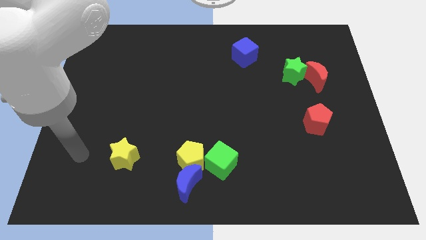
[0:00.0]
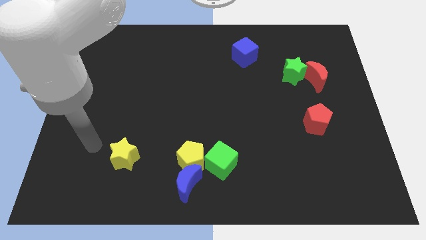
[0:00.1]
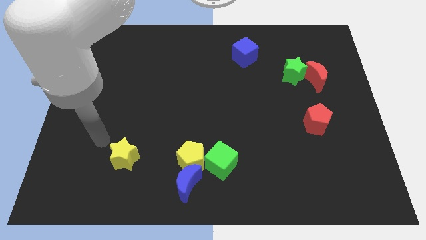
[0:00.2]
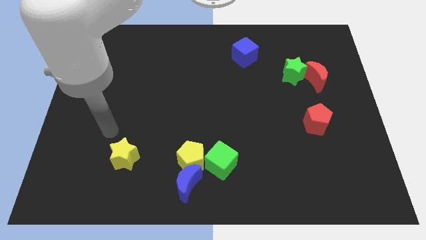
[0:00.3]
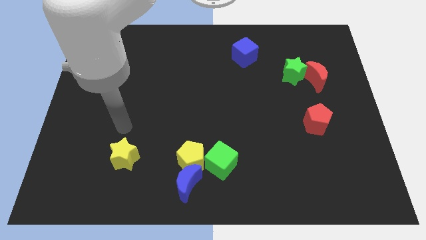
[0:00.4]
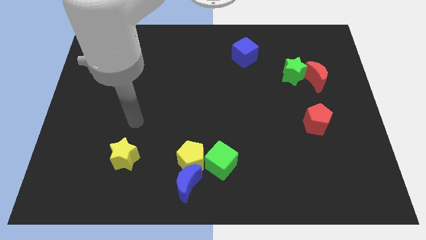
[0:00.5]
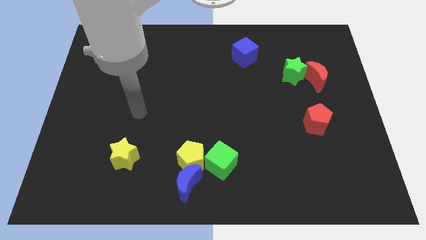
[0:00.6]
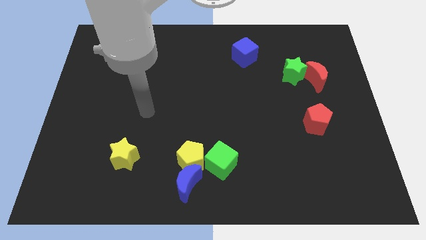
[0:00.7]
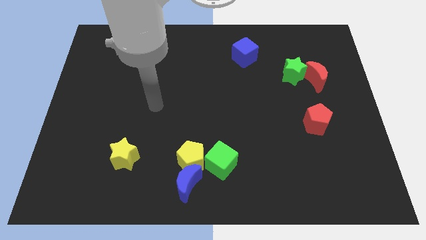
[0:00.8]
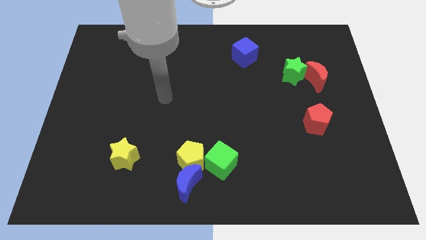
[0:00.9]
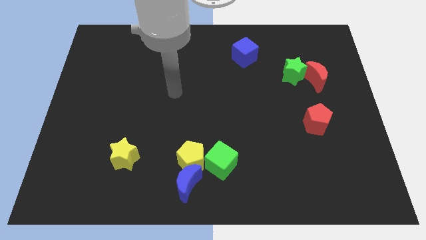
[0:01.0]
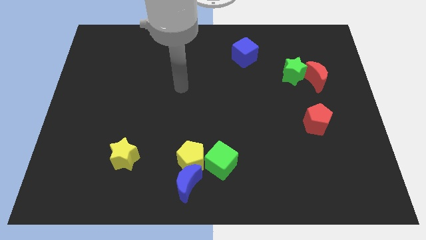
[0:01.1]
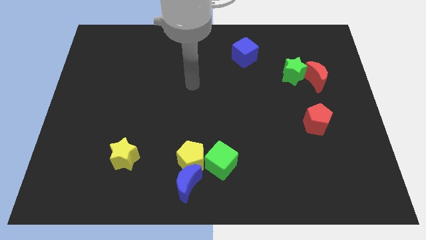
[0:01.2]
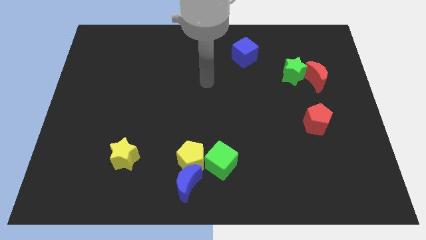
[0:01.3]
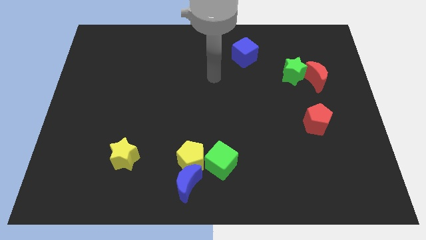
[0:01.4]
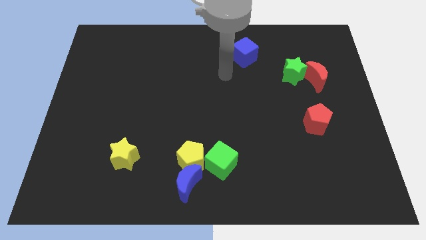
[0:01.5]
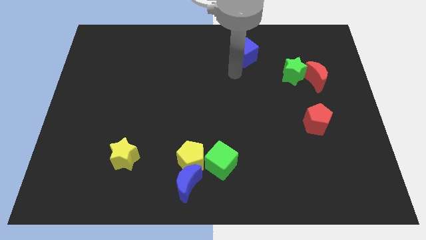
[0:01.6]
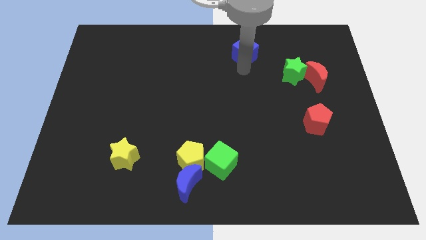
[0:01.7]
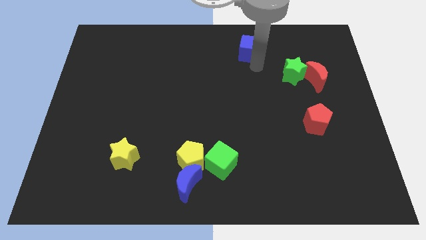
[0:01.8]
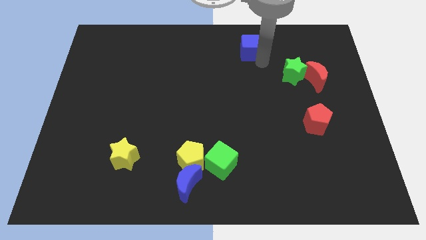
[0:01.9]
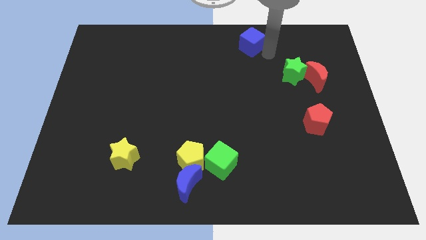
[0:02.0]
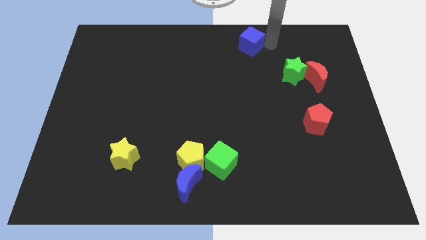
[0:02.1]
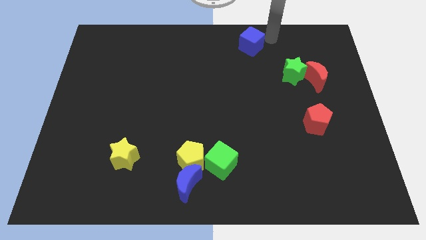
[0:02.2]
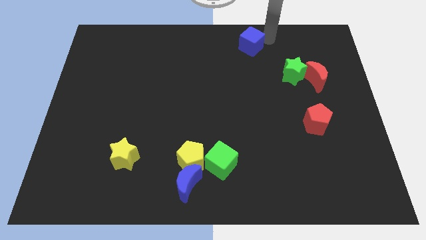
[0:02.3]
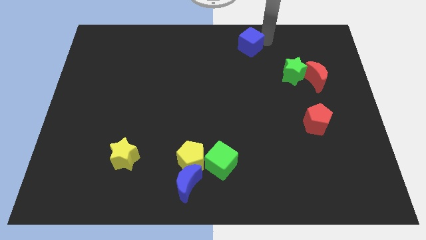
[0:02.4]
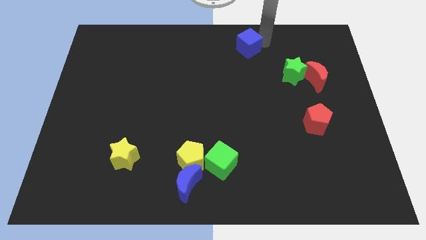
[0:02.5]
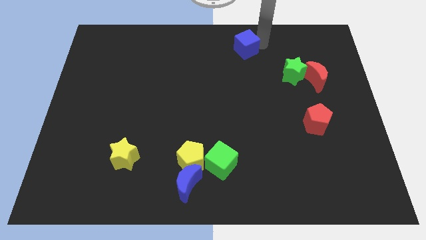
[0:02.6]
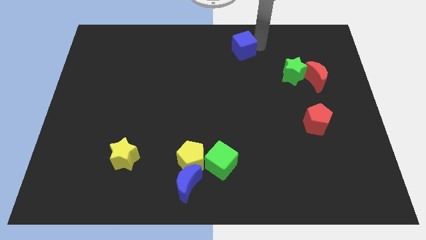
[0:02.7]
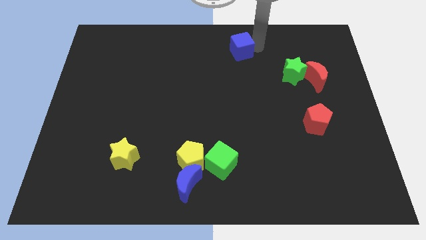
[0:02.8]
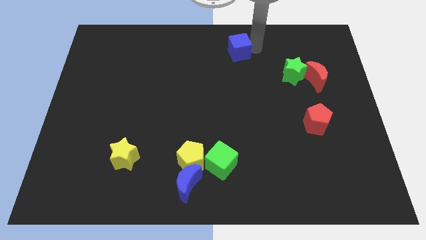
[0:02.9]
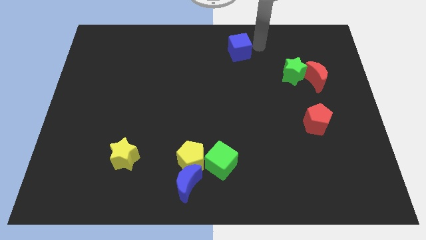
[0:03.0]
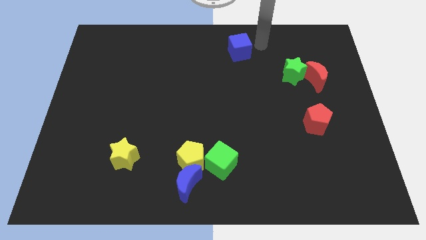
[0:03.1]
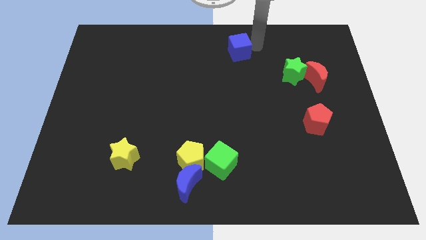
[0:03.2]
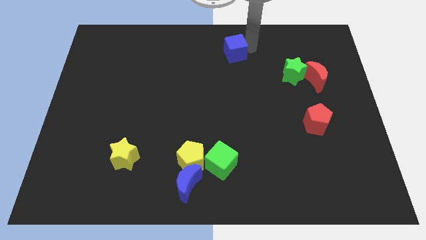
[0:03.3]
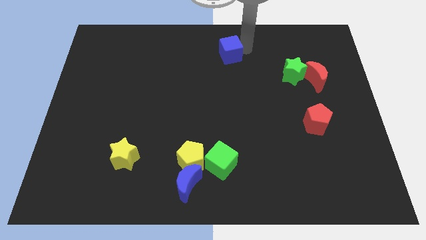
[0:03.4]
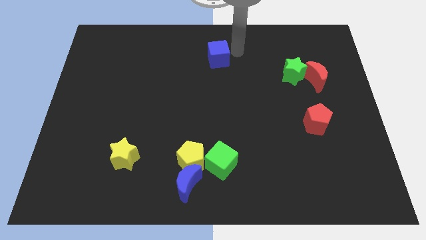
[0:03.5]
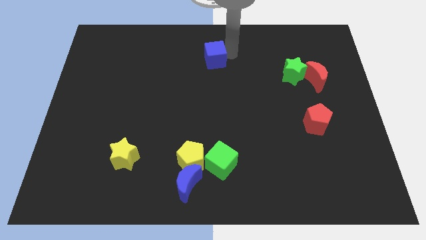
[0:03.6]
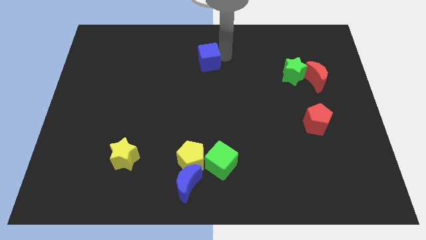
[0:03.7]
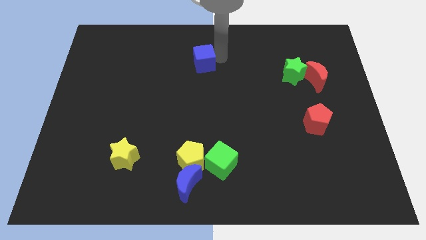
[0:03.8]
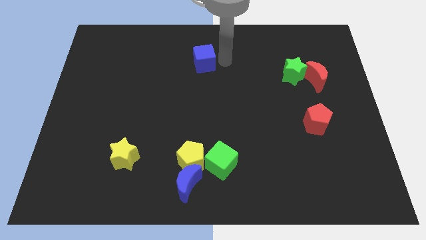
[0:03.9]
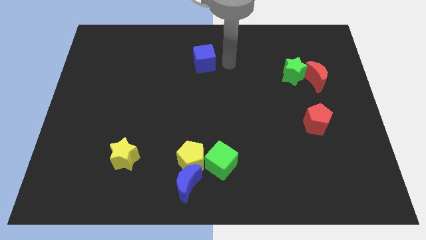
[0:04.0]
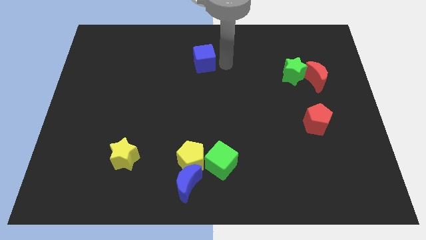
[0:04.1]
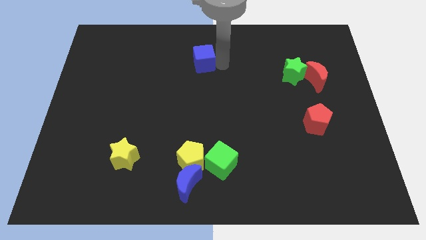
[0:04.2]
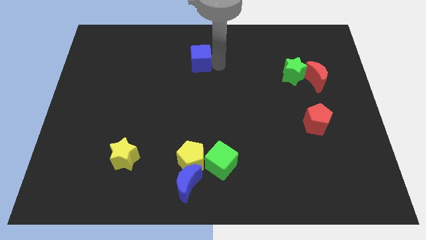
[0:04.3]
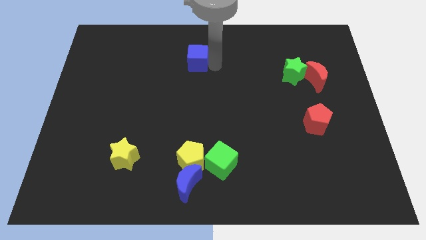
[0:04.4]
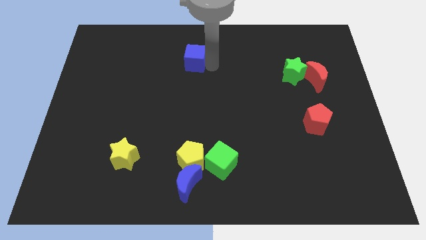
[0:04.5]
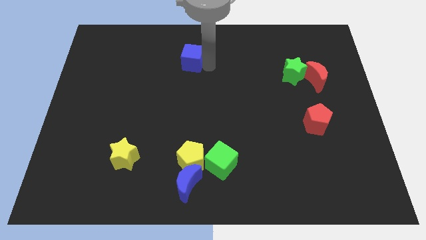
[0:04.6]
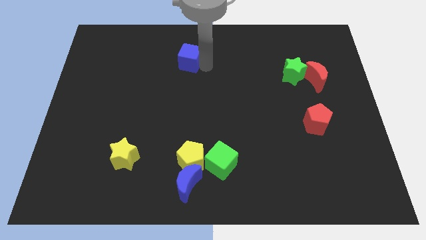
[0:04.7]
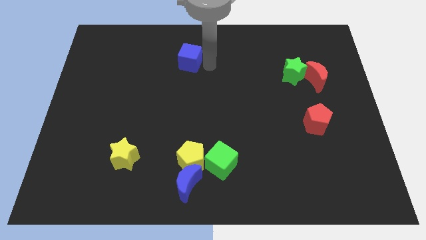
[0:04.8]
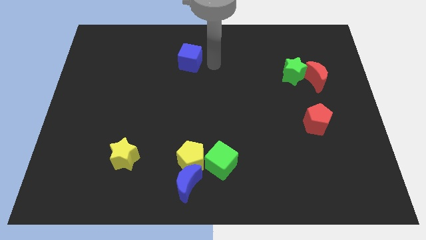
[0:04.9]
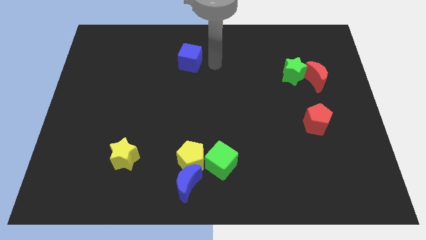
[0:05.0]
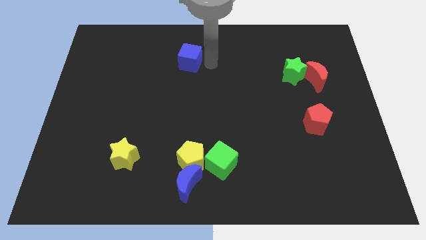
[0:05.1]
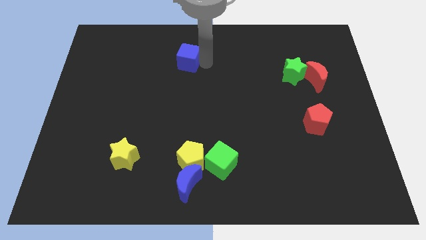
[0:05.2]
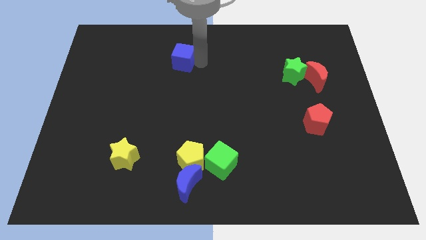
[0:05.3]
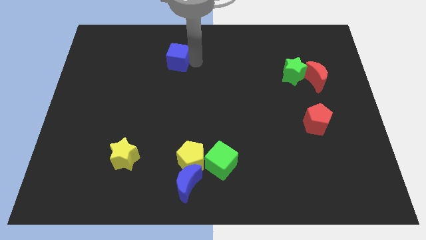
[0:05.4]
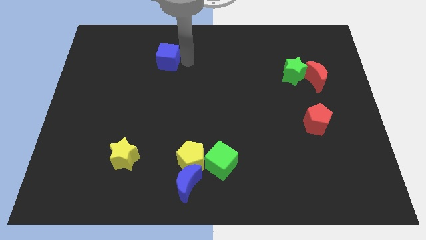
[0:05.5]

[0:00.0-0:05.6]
move the blue cube left

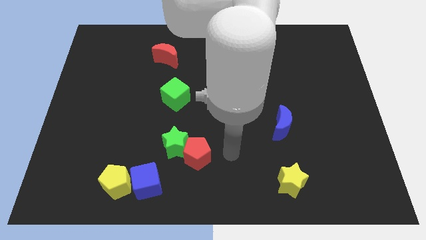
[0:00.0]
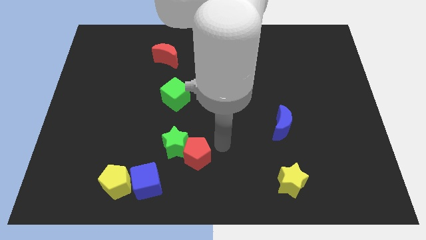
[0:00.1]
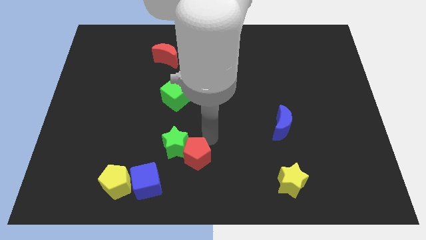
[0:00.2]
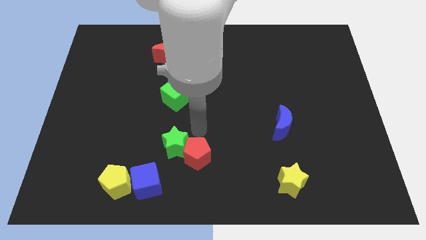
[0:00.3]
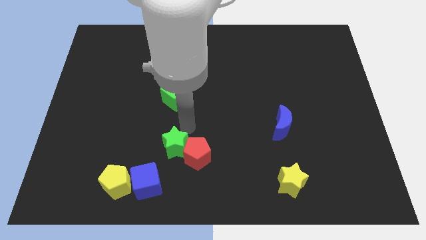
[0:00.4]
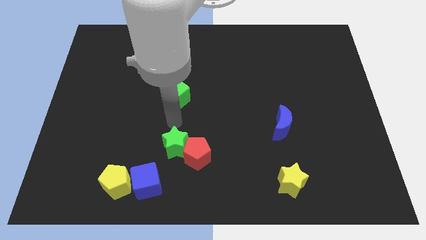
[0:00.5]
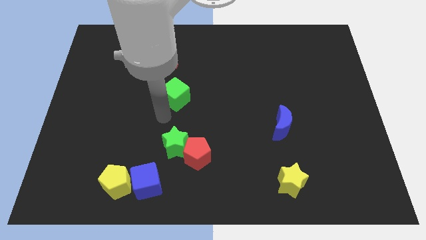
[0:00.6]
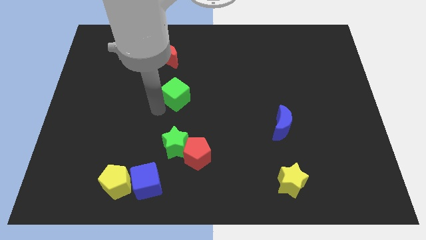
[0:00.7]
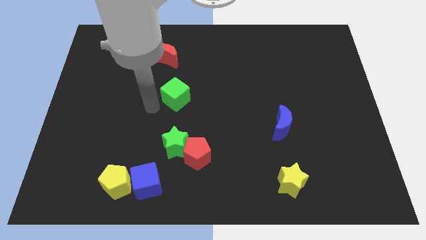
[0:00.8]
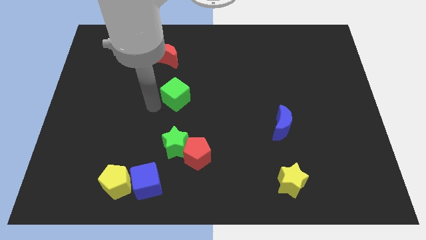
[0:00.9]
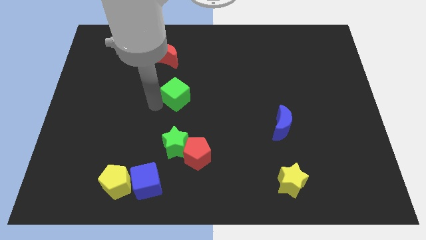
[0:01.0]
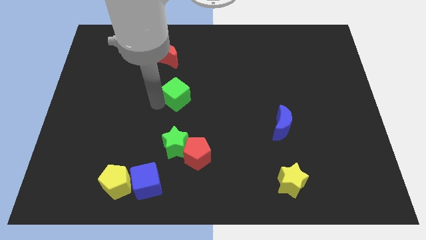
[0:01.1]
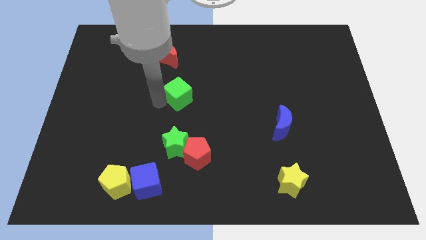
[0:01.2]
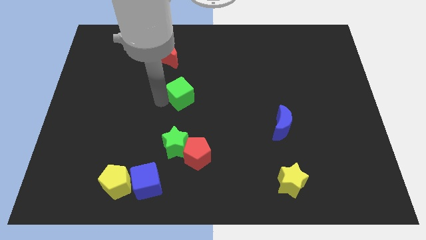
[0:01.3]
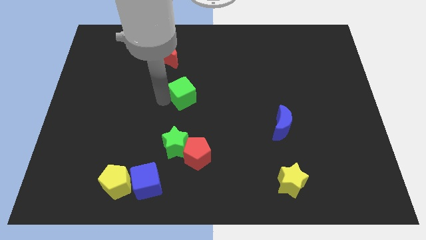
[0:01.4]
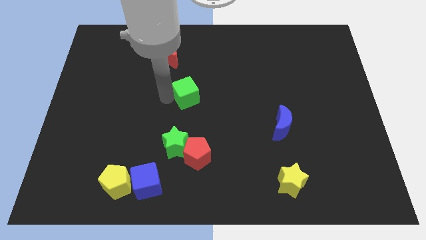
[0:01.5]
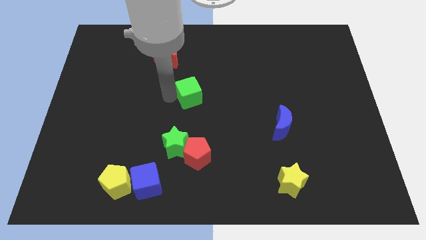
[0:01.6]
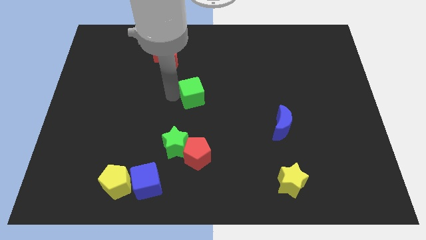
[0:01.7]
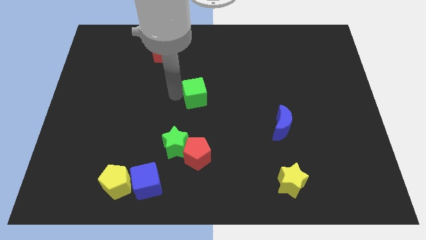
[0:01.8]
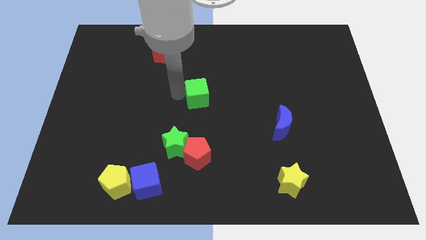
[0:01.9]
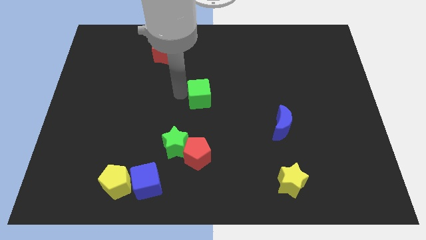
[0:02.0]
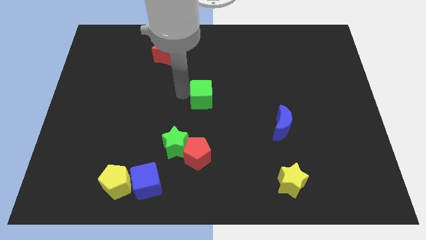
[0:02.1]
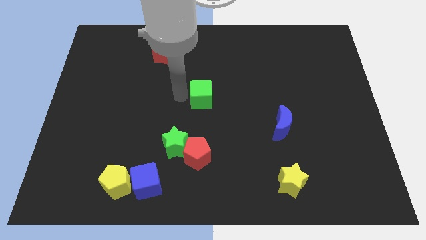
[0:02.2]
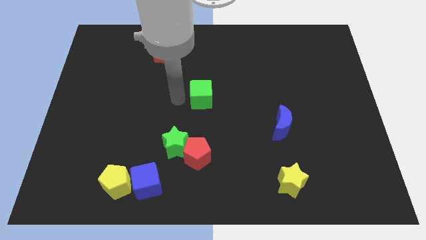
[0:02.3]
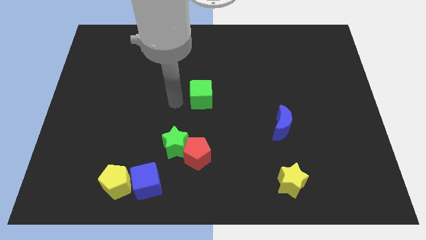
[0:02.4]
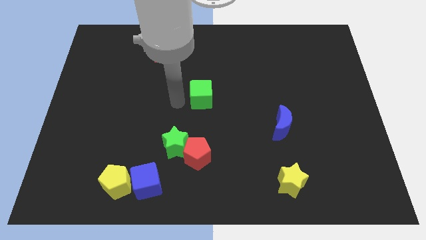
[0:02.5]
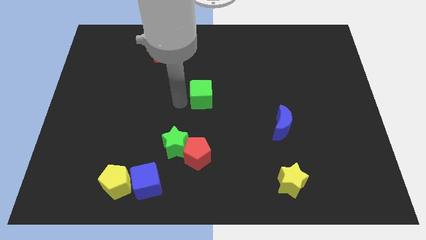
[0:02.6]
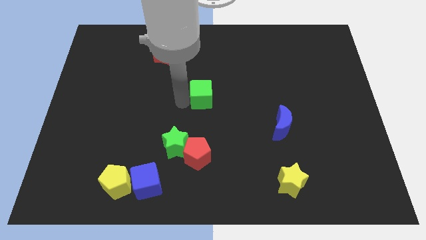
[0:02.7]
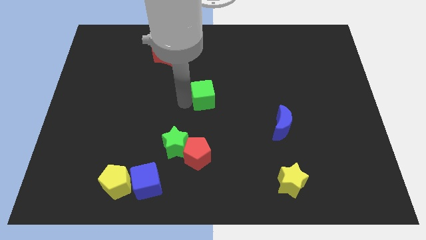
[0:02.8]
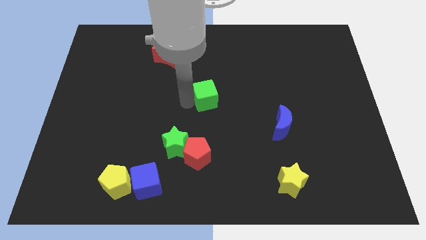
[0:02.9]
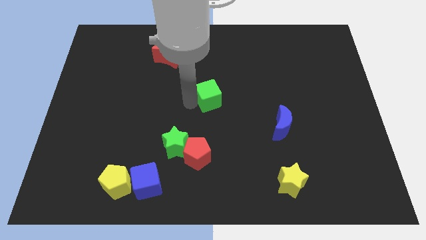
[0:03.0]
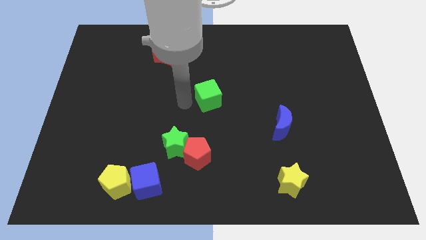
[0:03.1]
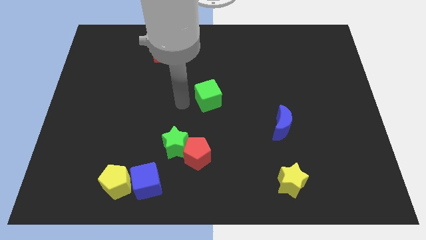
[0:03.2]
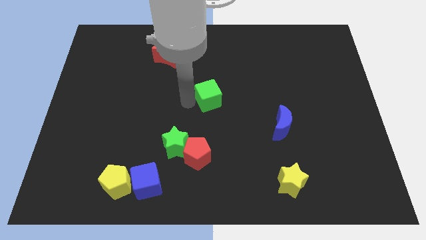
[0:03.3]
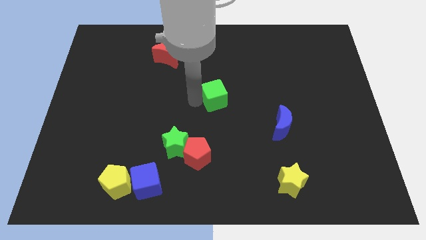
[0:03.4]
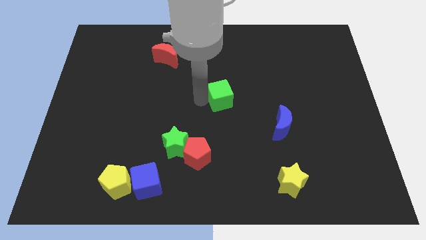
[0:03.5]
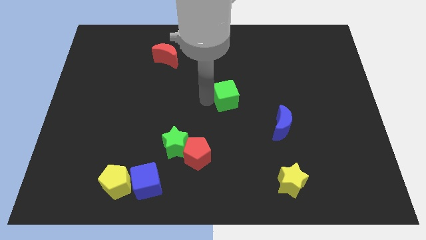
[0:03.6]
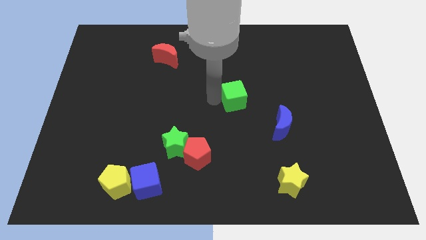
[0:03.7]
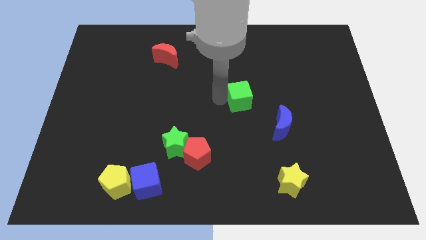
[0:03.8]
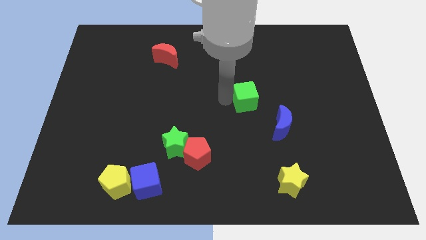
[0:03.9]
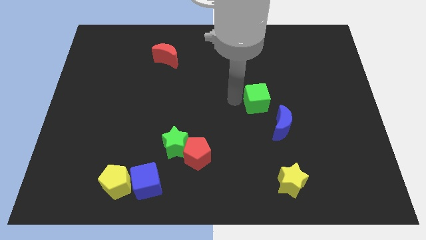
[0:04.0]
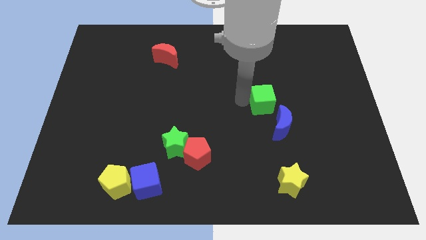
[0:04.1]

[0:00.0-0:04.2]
push the green cube to the right
